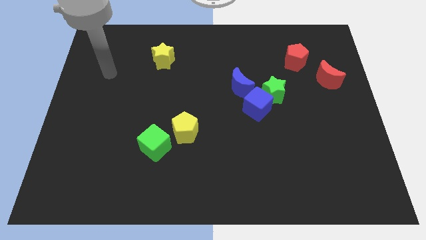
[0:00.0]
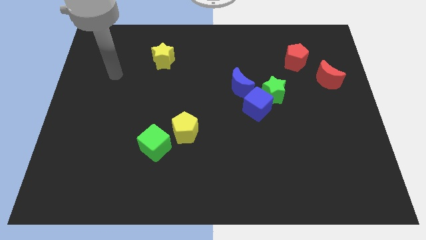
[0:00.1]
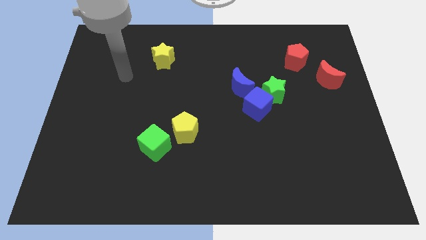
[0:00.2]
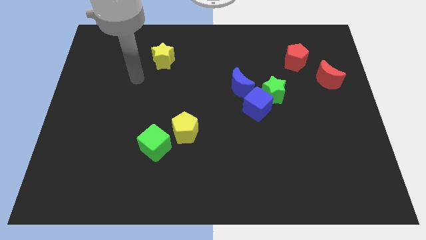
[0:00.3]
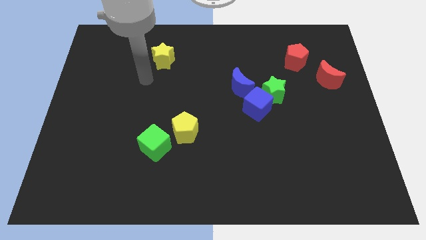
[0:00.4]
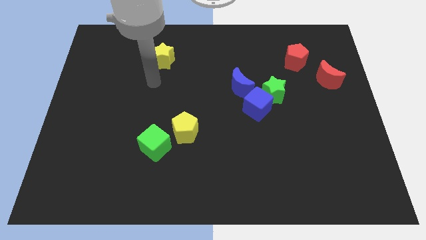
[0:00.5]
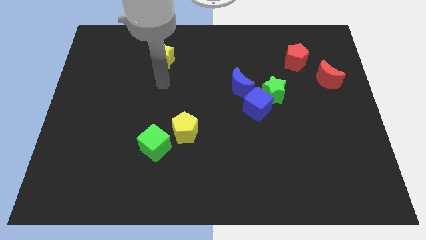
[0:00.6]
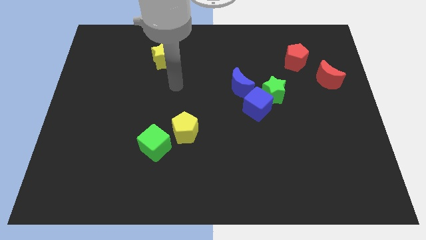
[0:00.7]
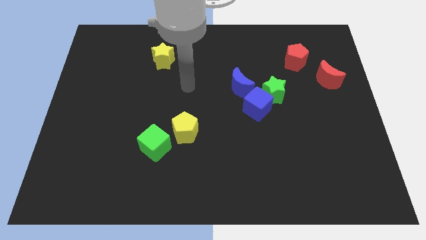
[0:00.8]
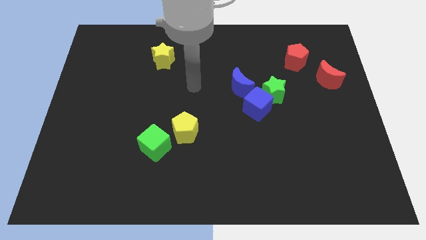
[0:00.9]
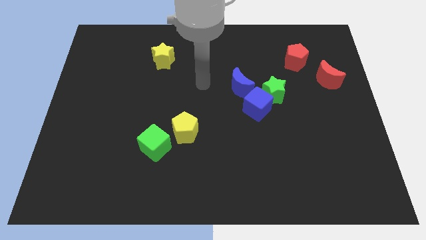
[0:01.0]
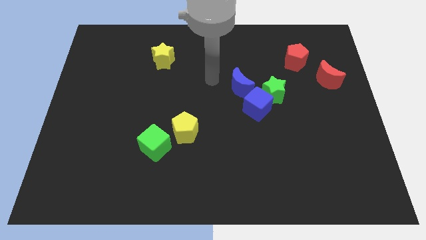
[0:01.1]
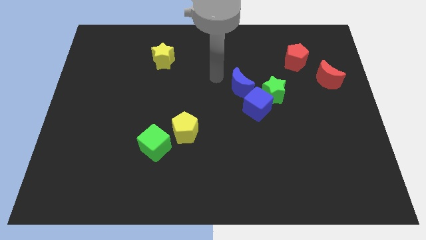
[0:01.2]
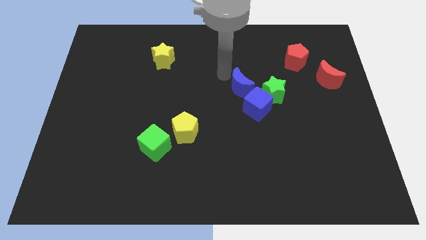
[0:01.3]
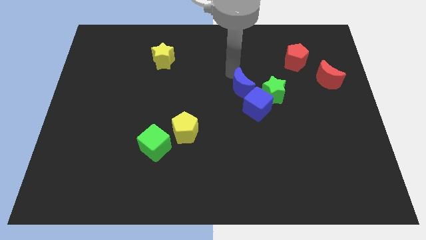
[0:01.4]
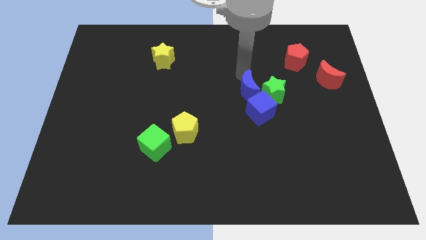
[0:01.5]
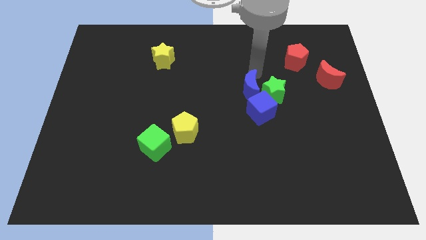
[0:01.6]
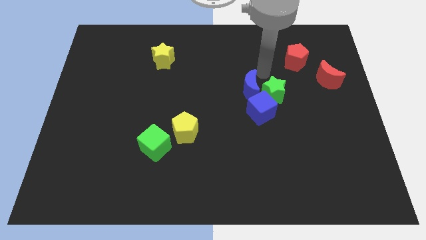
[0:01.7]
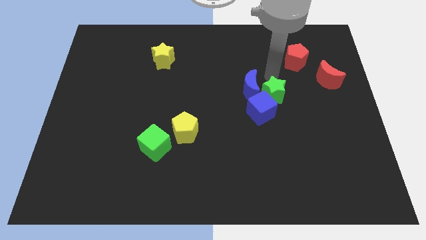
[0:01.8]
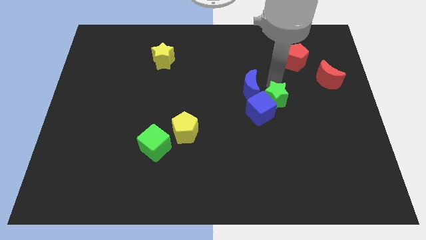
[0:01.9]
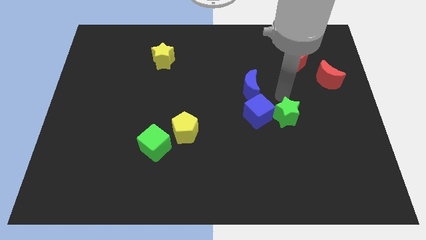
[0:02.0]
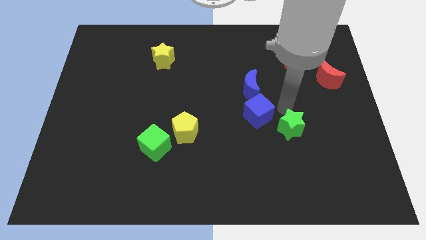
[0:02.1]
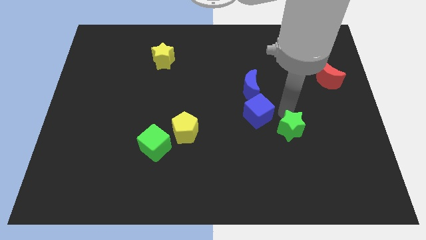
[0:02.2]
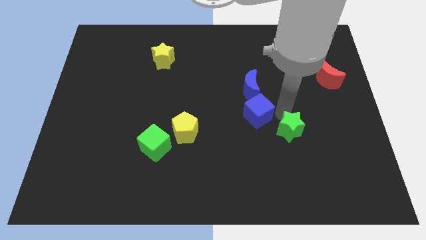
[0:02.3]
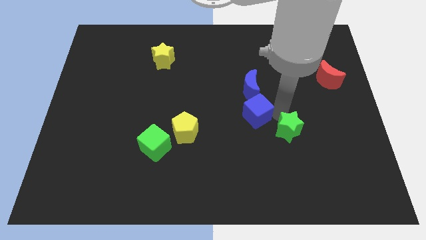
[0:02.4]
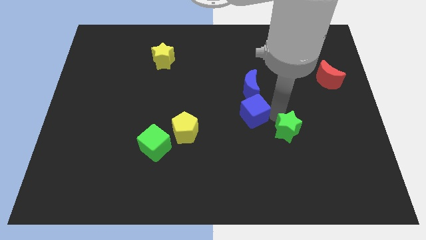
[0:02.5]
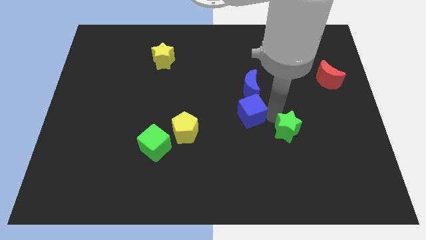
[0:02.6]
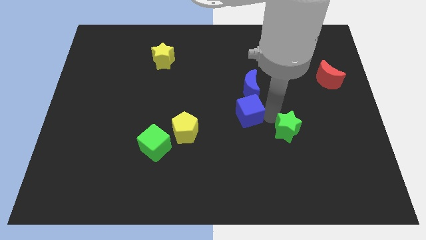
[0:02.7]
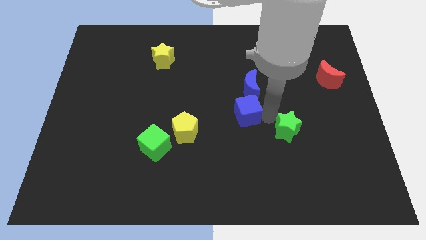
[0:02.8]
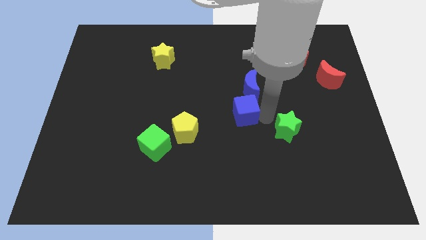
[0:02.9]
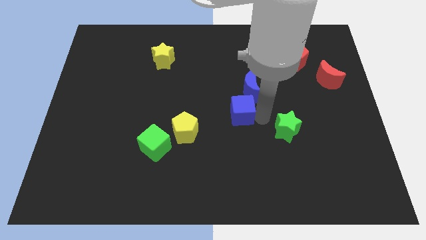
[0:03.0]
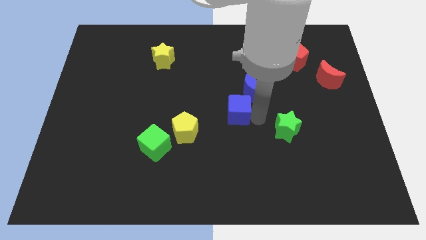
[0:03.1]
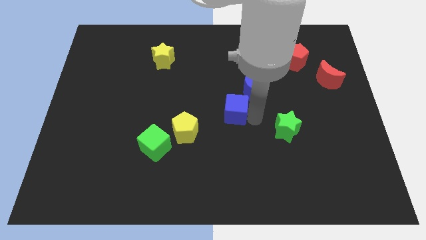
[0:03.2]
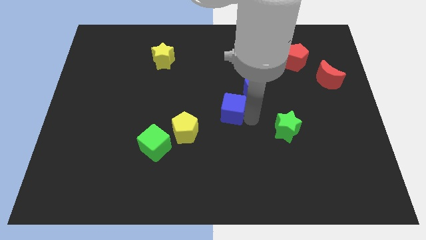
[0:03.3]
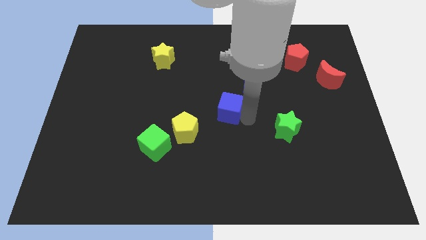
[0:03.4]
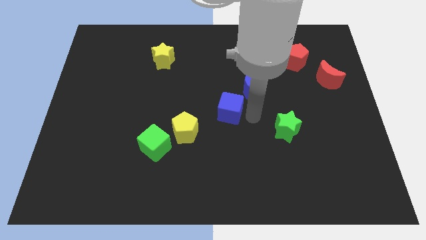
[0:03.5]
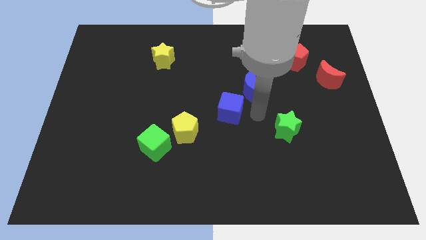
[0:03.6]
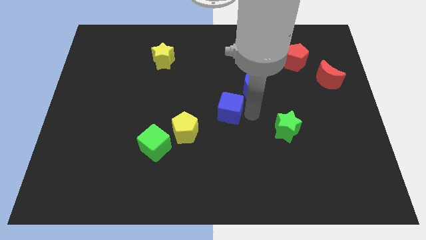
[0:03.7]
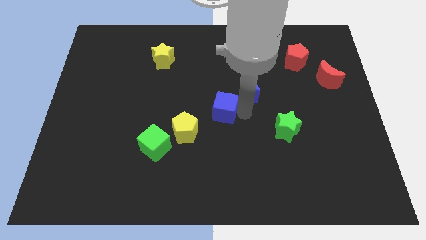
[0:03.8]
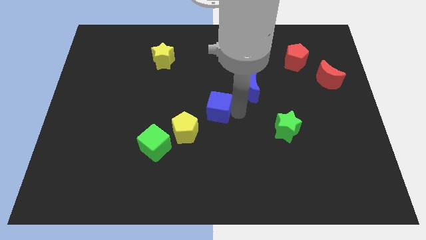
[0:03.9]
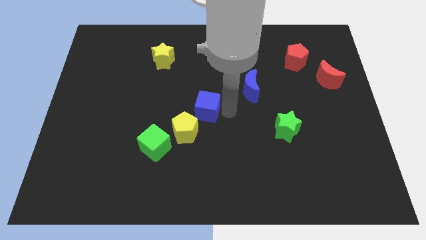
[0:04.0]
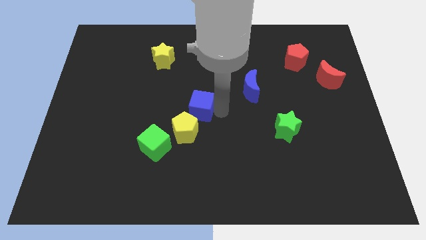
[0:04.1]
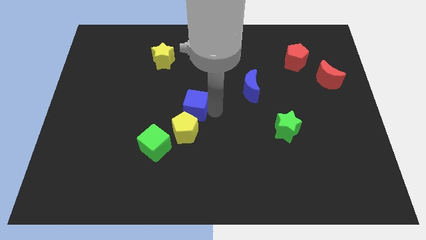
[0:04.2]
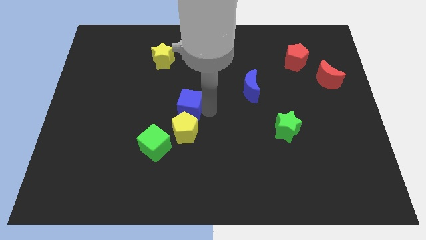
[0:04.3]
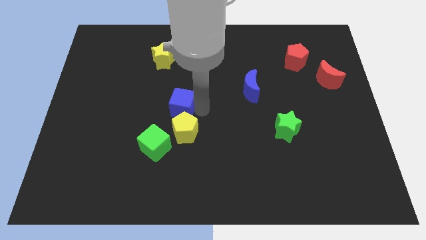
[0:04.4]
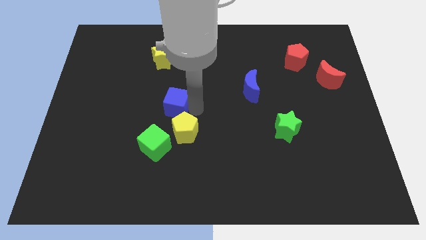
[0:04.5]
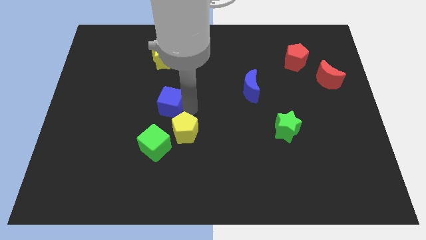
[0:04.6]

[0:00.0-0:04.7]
push the blue cube left

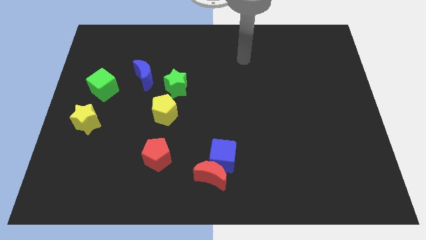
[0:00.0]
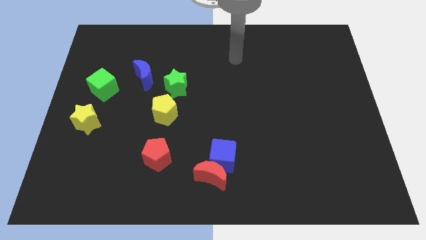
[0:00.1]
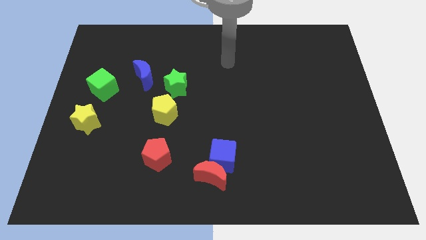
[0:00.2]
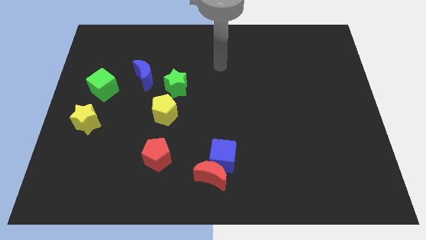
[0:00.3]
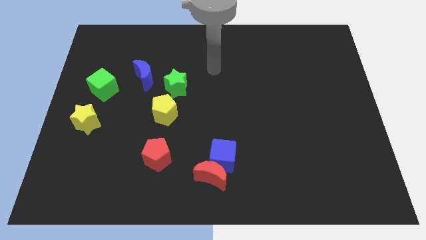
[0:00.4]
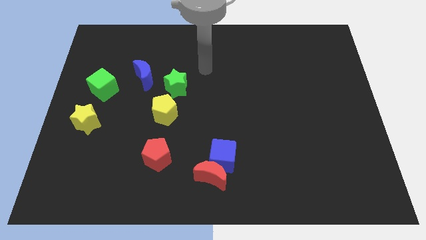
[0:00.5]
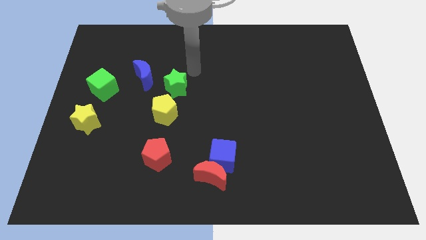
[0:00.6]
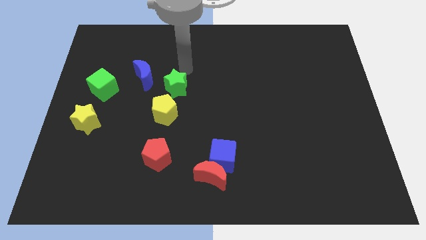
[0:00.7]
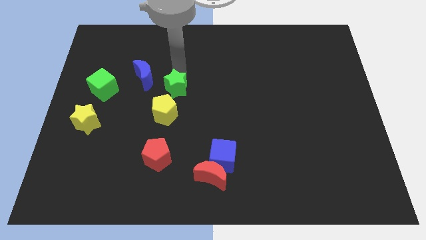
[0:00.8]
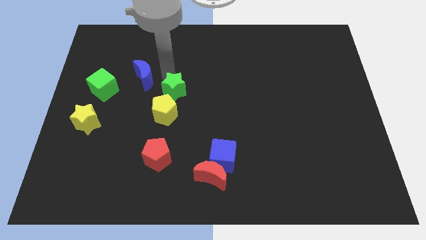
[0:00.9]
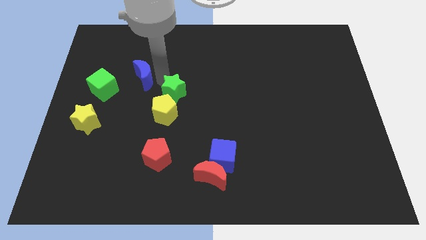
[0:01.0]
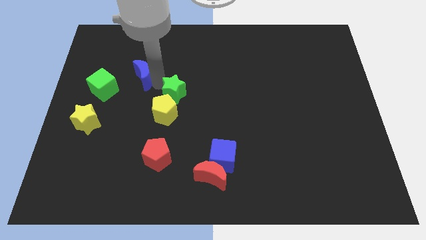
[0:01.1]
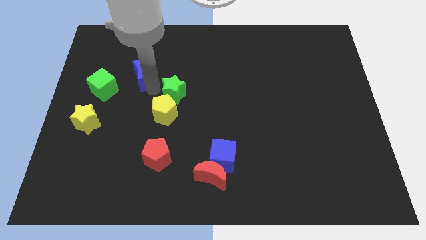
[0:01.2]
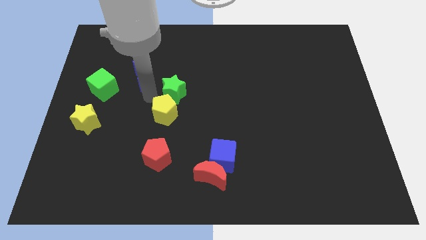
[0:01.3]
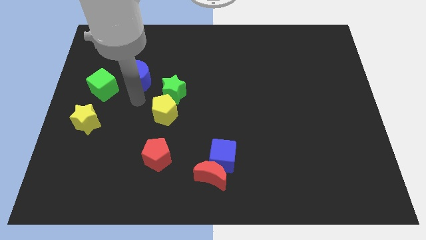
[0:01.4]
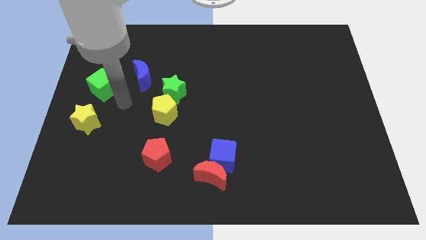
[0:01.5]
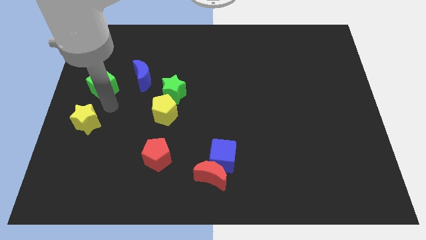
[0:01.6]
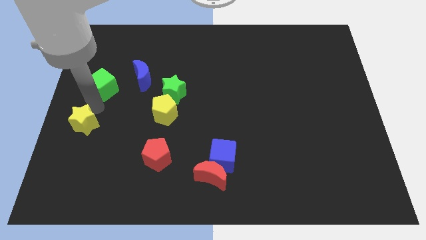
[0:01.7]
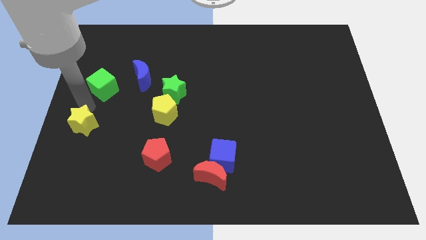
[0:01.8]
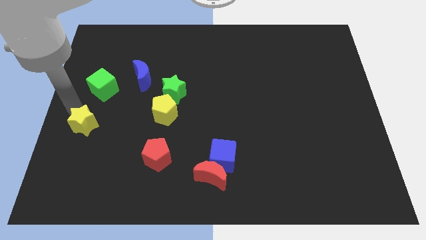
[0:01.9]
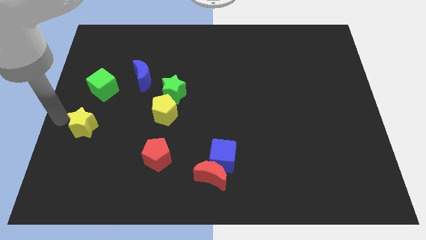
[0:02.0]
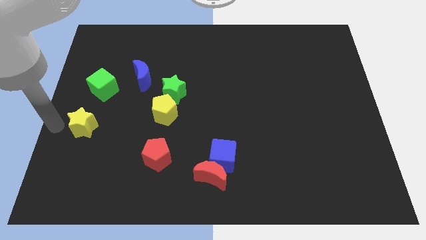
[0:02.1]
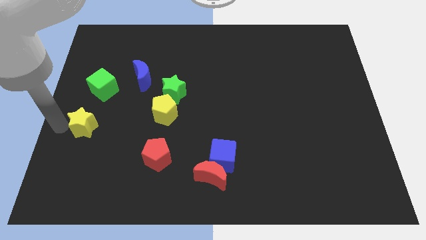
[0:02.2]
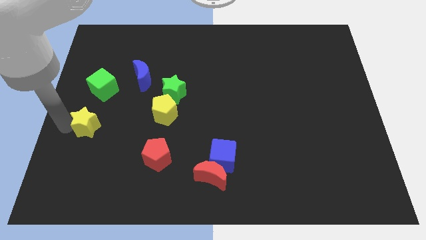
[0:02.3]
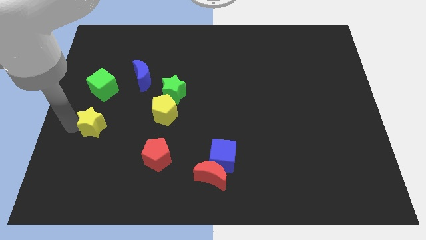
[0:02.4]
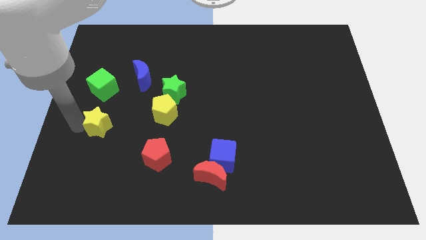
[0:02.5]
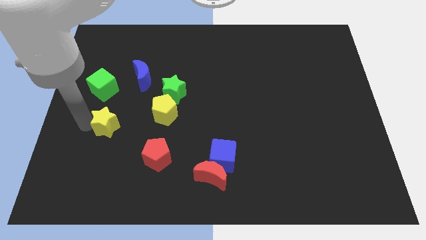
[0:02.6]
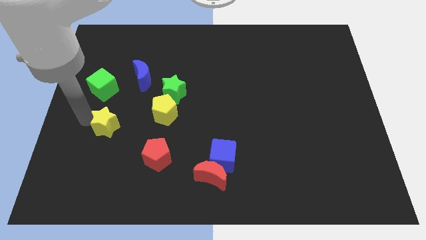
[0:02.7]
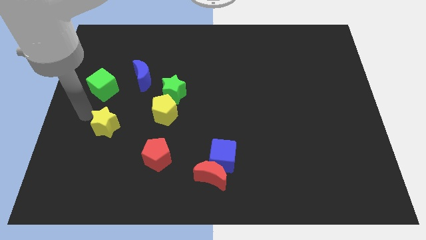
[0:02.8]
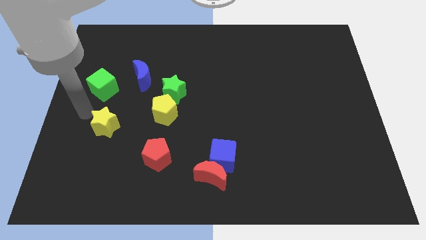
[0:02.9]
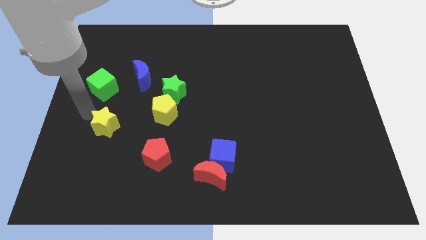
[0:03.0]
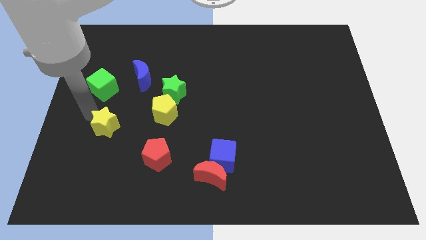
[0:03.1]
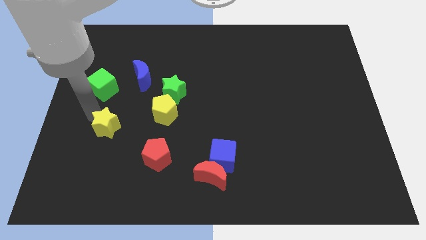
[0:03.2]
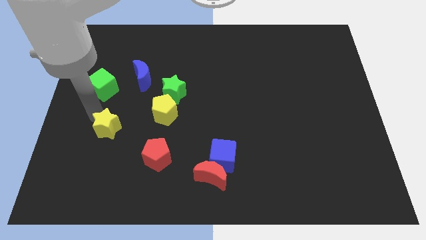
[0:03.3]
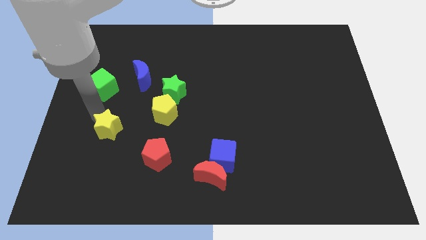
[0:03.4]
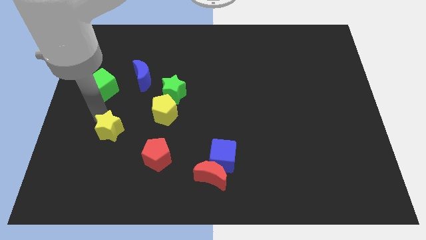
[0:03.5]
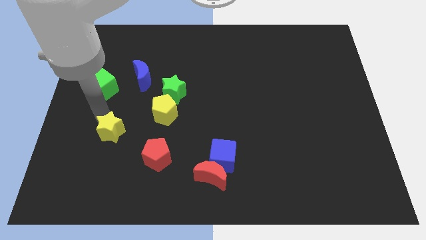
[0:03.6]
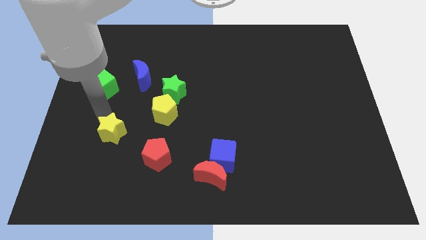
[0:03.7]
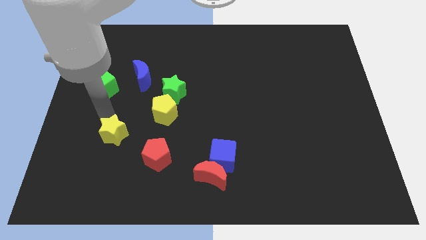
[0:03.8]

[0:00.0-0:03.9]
slightly push the yellow star down and then to the right
